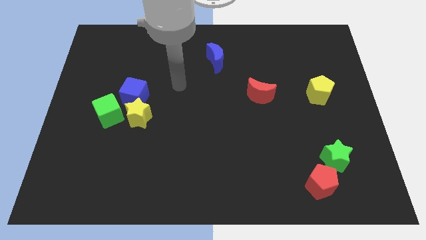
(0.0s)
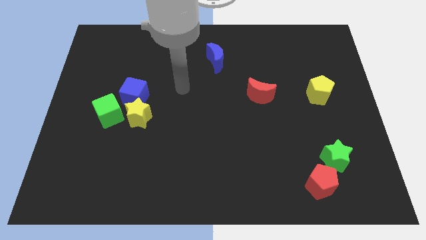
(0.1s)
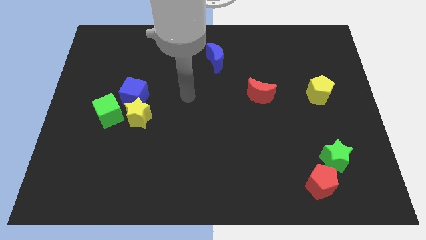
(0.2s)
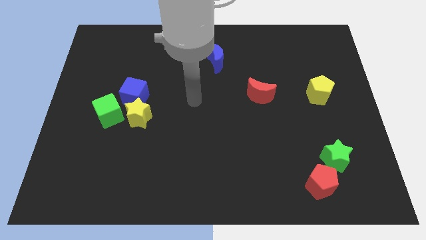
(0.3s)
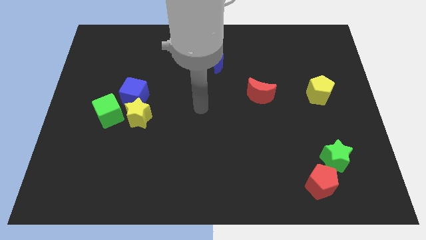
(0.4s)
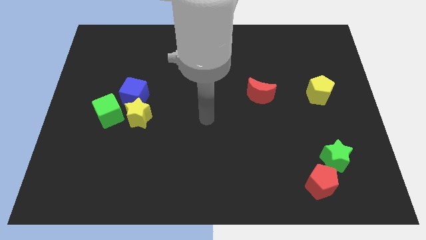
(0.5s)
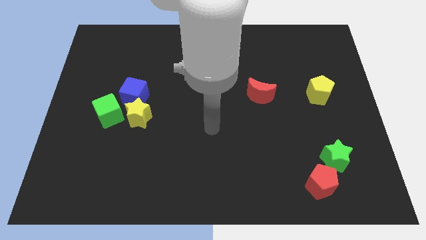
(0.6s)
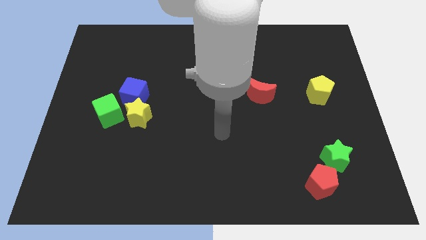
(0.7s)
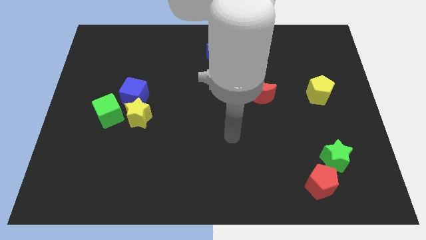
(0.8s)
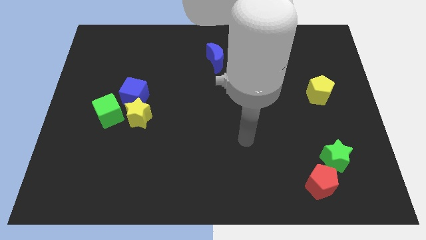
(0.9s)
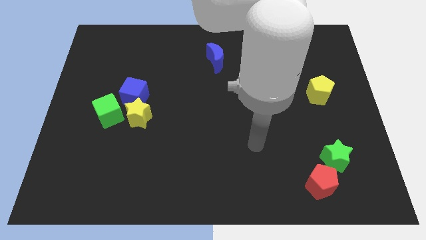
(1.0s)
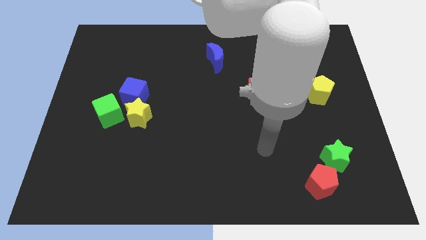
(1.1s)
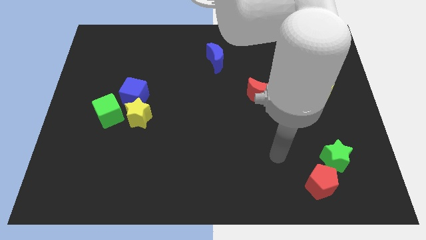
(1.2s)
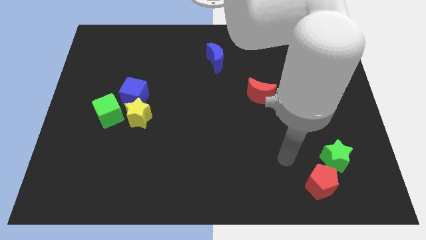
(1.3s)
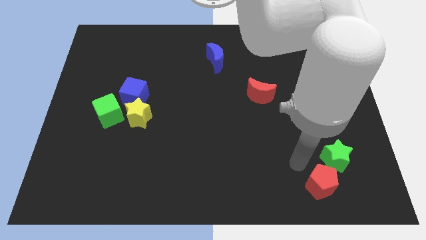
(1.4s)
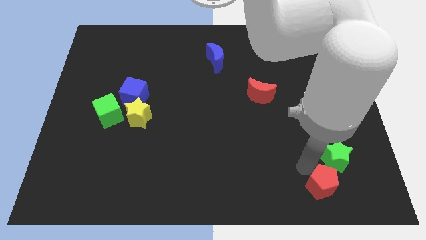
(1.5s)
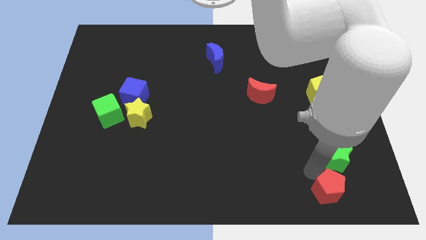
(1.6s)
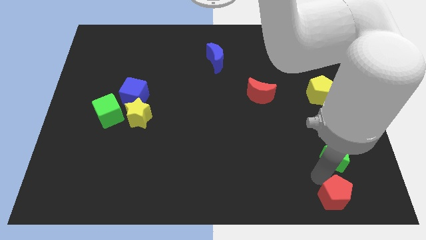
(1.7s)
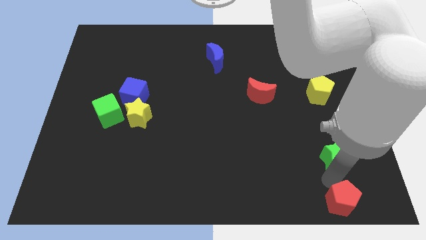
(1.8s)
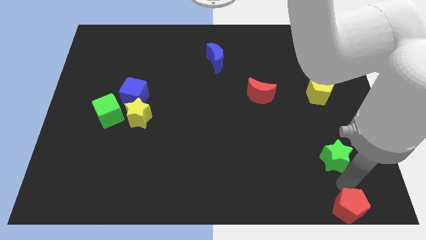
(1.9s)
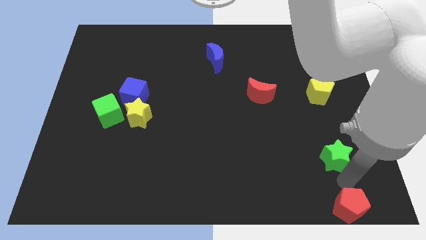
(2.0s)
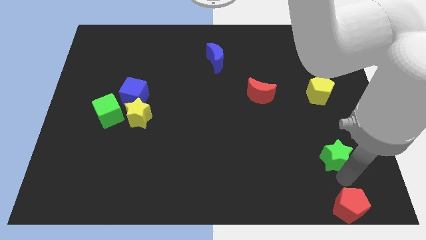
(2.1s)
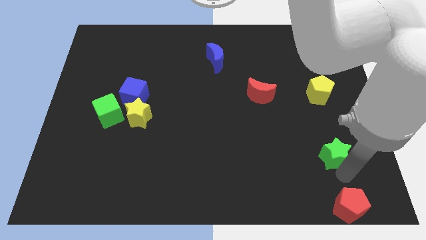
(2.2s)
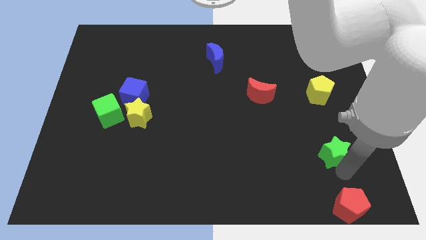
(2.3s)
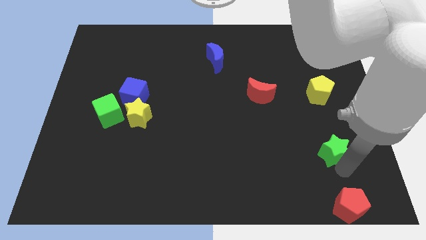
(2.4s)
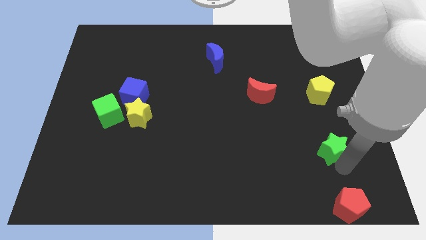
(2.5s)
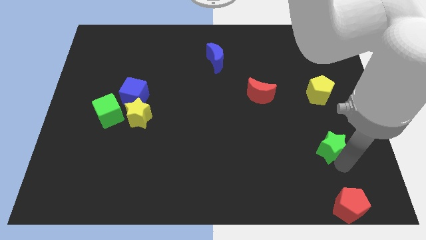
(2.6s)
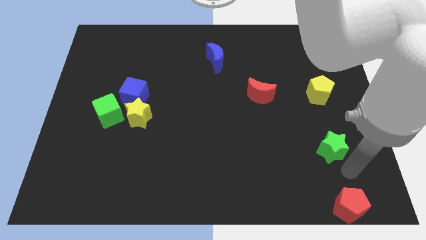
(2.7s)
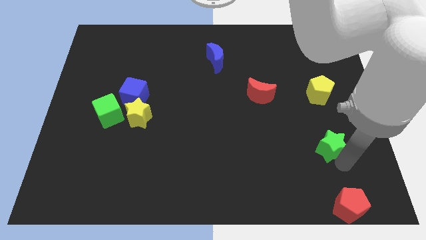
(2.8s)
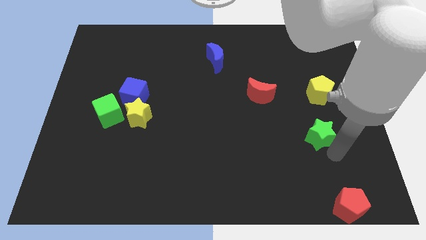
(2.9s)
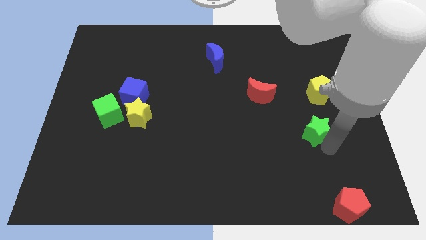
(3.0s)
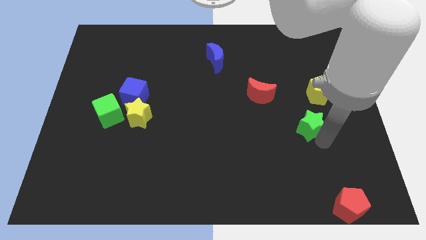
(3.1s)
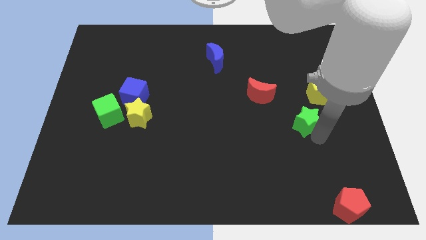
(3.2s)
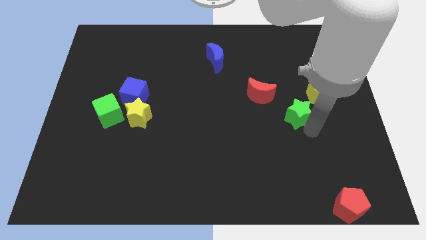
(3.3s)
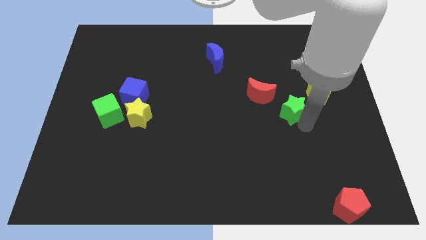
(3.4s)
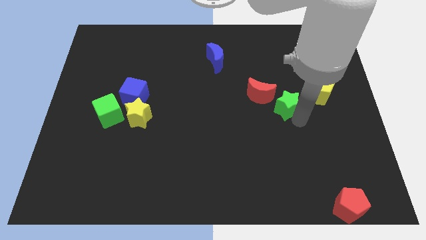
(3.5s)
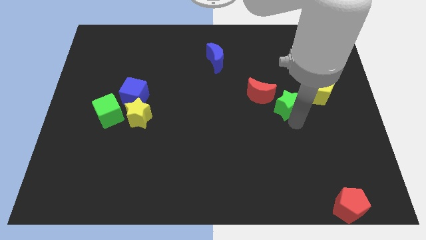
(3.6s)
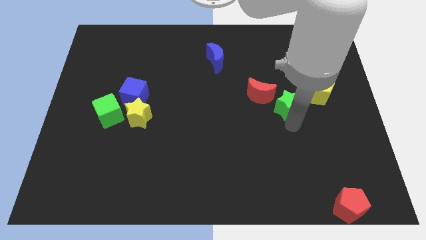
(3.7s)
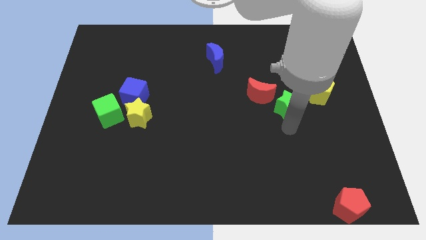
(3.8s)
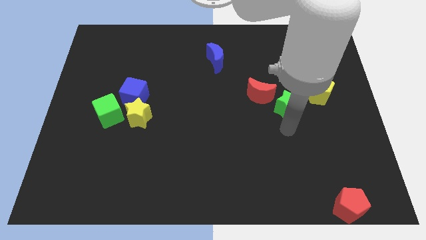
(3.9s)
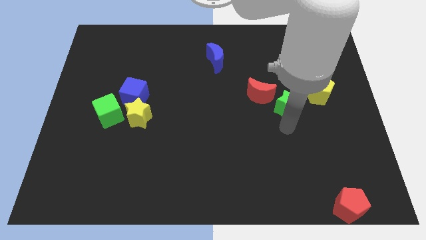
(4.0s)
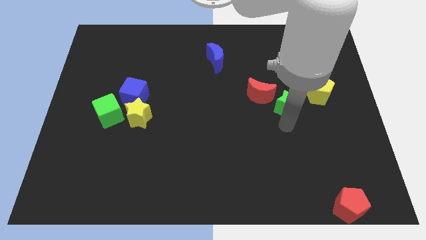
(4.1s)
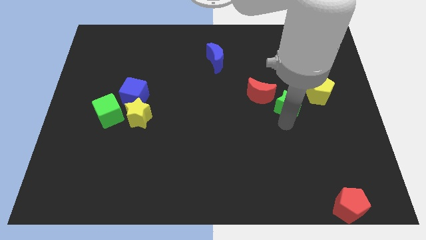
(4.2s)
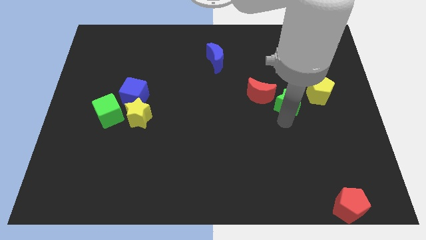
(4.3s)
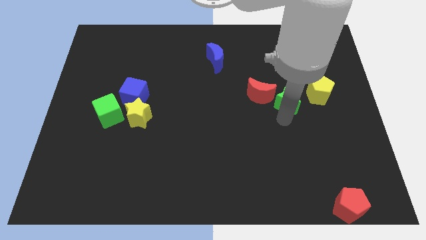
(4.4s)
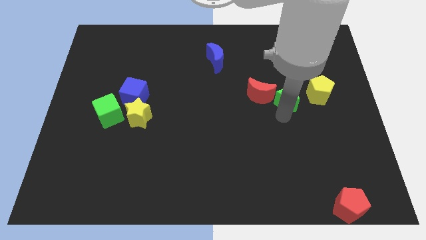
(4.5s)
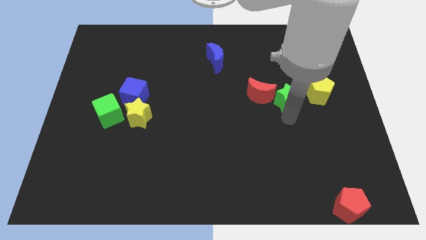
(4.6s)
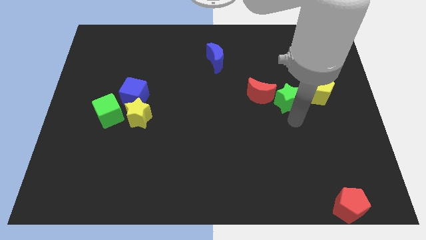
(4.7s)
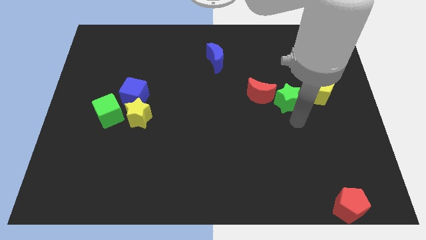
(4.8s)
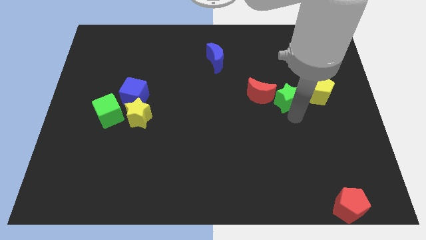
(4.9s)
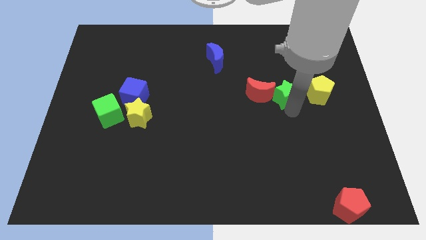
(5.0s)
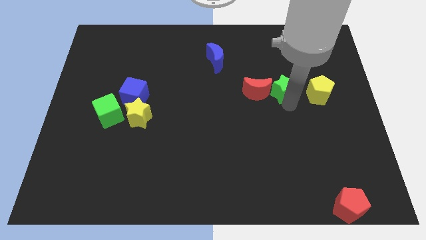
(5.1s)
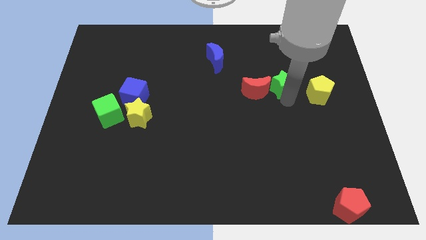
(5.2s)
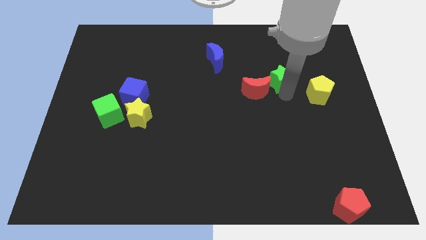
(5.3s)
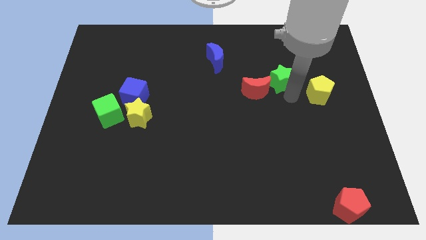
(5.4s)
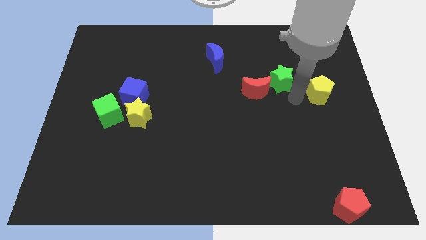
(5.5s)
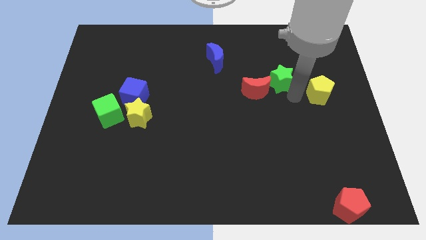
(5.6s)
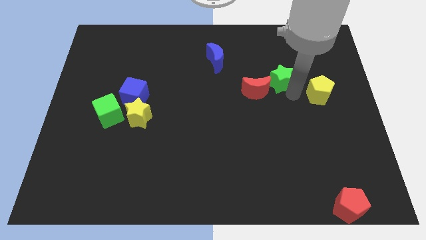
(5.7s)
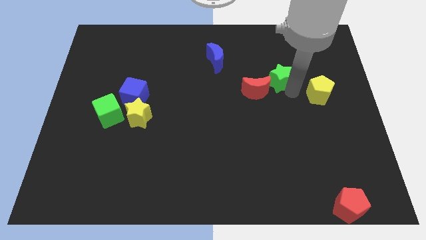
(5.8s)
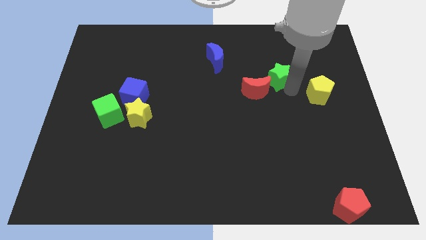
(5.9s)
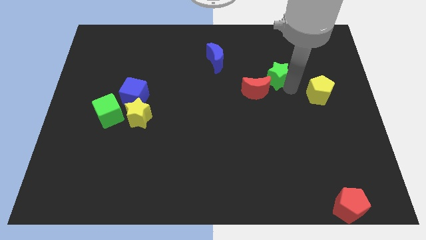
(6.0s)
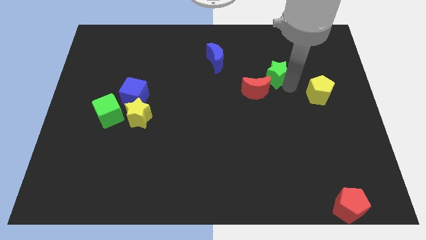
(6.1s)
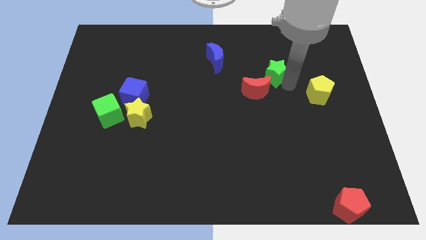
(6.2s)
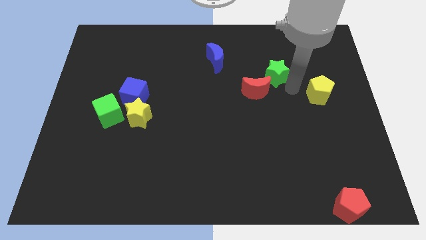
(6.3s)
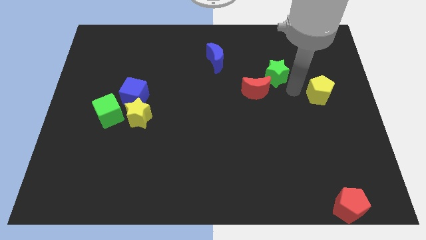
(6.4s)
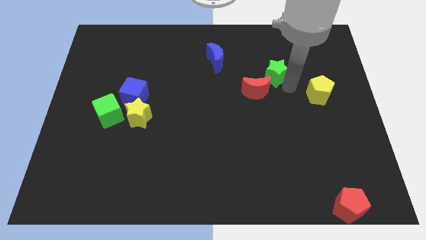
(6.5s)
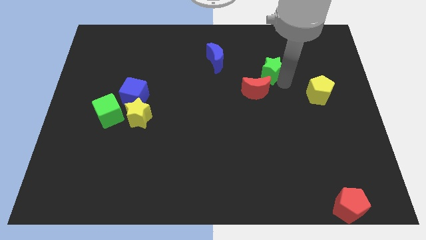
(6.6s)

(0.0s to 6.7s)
put the green star right of the blue moon
